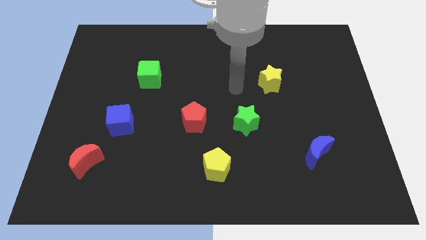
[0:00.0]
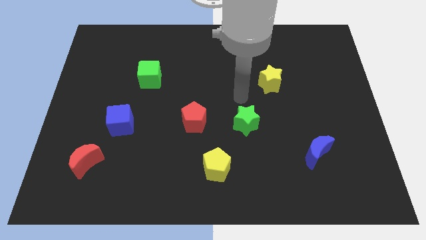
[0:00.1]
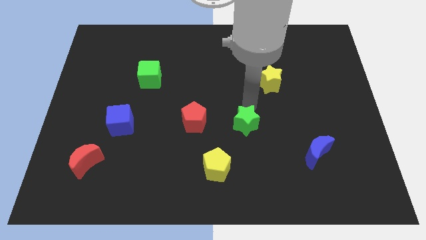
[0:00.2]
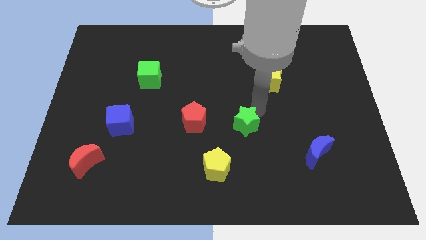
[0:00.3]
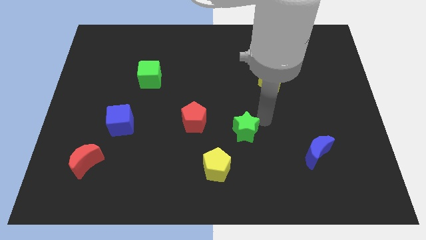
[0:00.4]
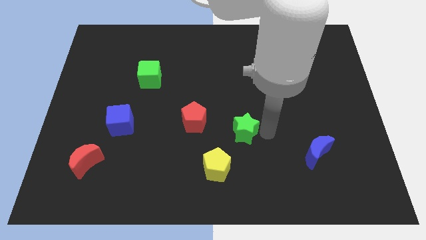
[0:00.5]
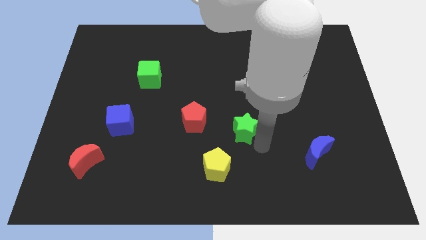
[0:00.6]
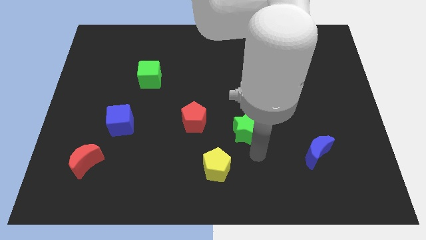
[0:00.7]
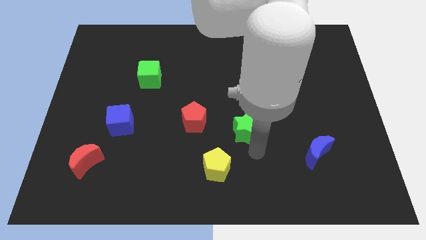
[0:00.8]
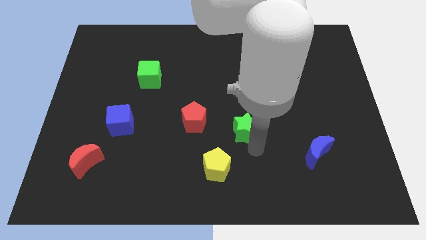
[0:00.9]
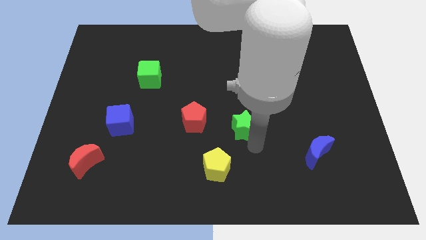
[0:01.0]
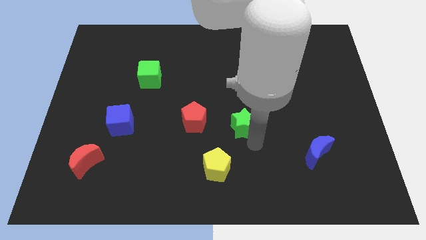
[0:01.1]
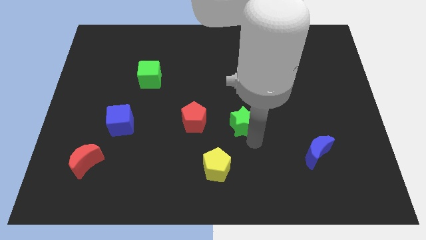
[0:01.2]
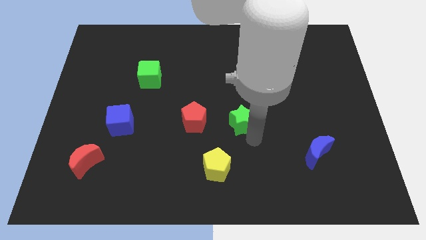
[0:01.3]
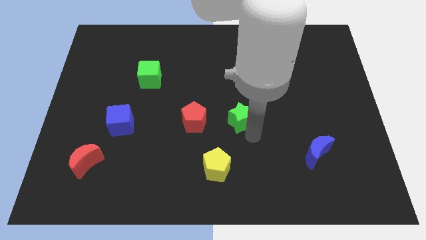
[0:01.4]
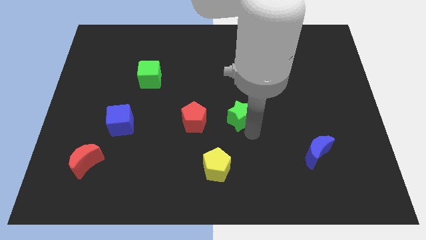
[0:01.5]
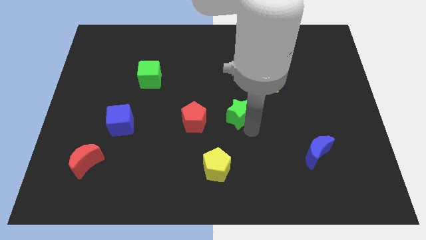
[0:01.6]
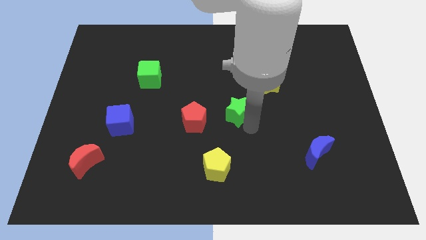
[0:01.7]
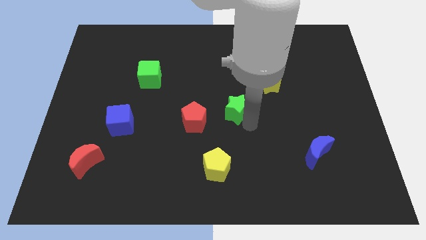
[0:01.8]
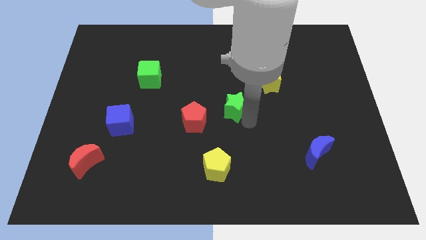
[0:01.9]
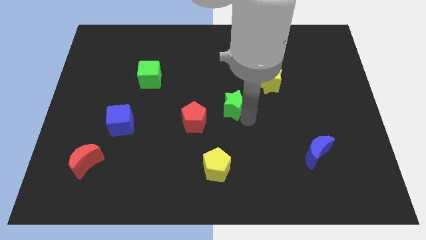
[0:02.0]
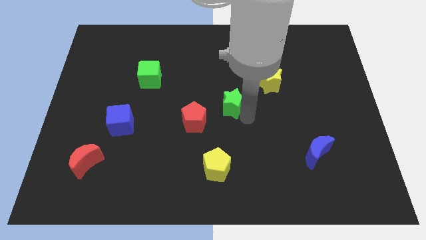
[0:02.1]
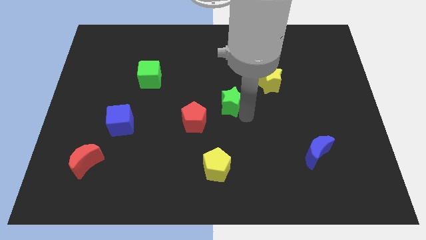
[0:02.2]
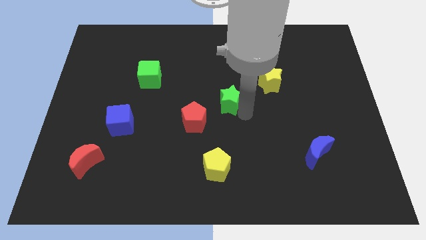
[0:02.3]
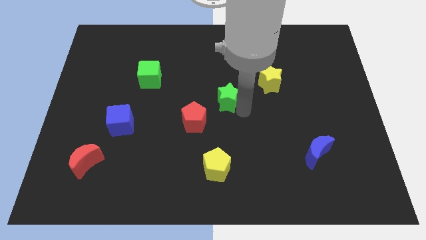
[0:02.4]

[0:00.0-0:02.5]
slightly move the green star diagonally up and left

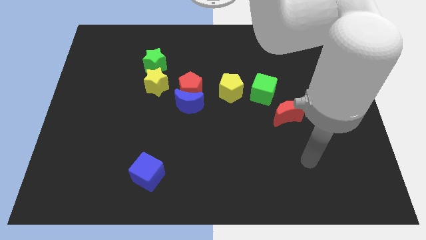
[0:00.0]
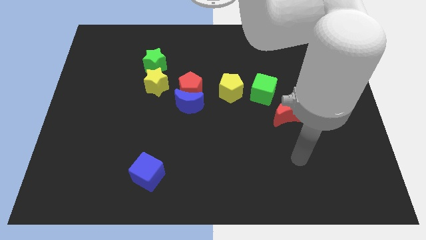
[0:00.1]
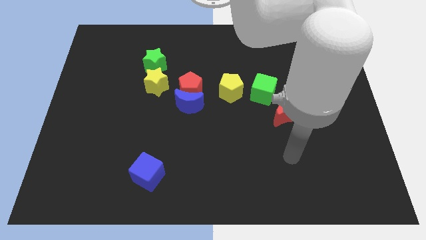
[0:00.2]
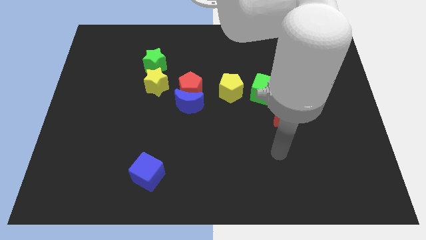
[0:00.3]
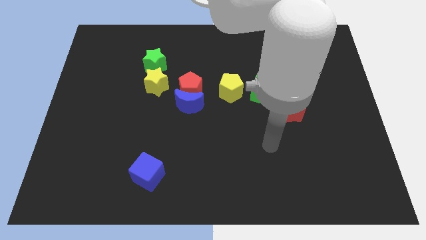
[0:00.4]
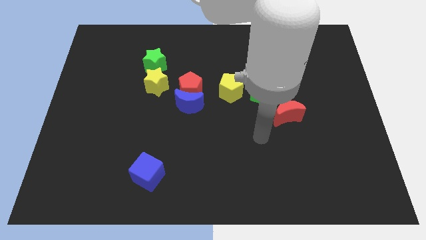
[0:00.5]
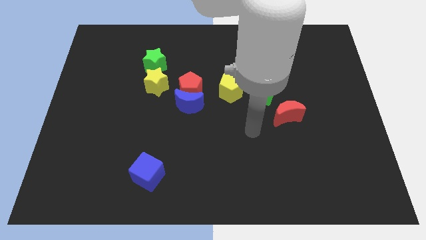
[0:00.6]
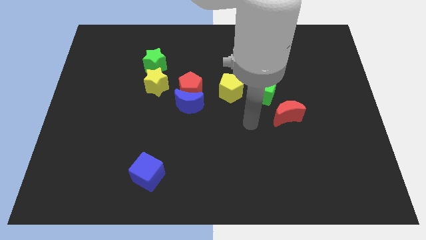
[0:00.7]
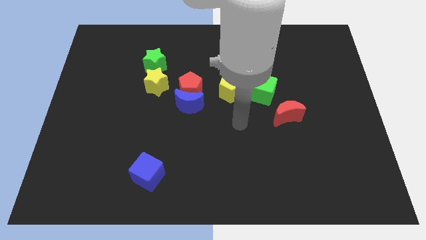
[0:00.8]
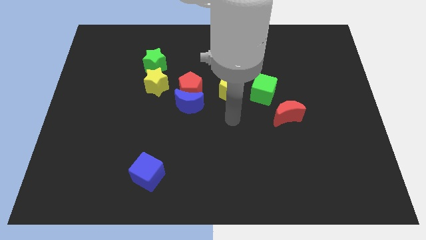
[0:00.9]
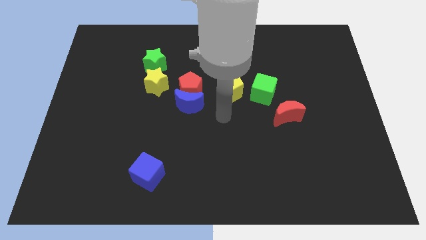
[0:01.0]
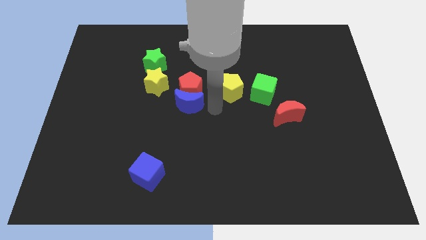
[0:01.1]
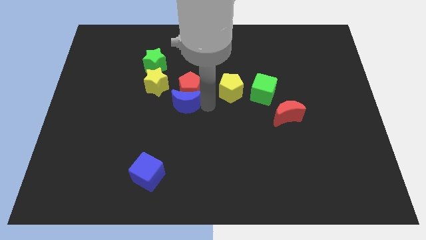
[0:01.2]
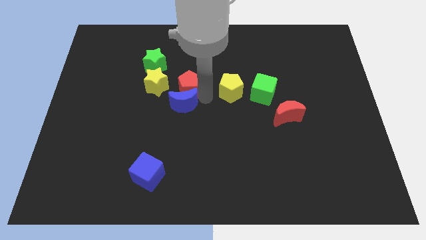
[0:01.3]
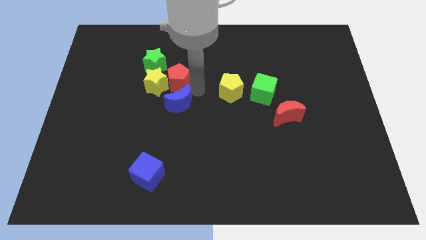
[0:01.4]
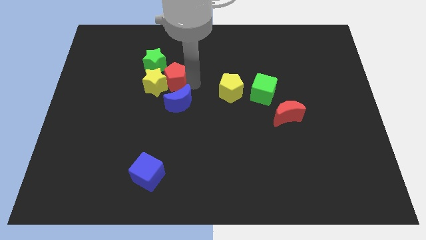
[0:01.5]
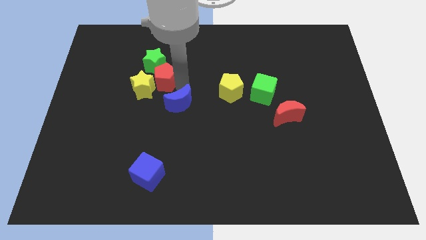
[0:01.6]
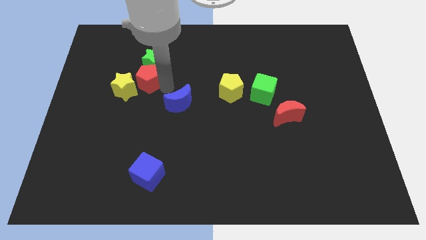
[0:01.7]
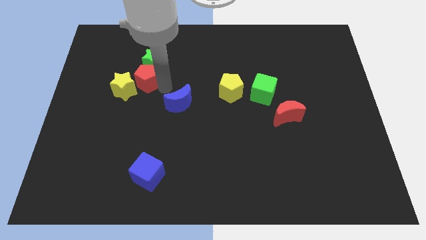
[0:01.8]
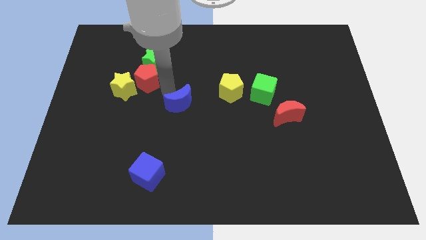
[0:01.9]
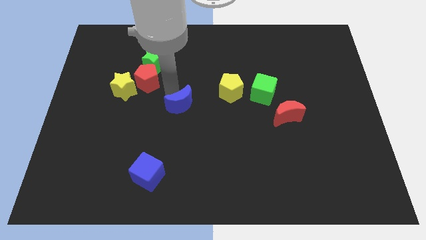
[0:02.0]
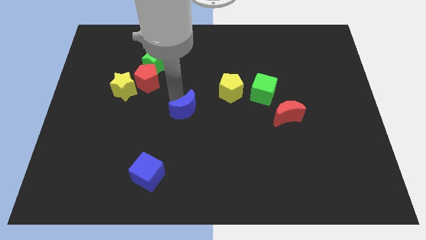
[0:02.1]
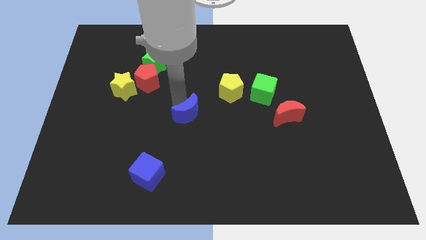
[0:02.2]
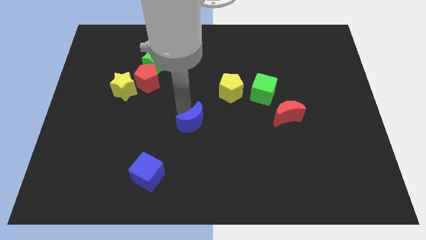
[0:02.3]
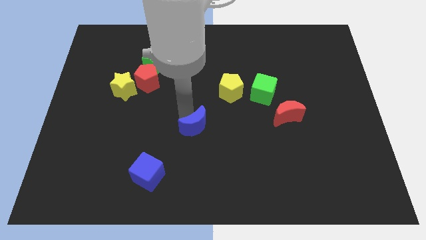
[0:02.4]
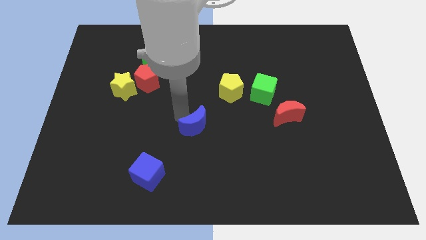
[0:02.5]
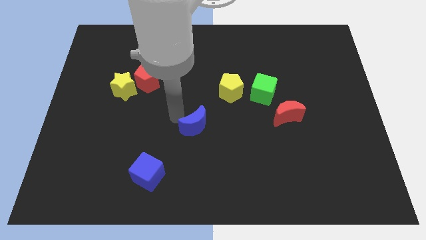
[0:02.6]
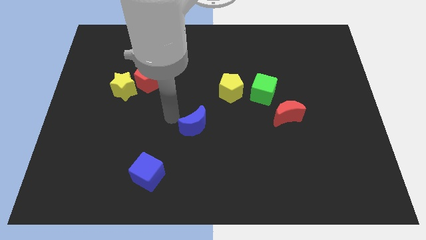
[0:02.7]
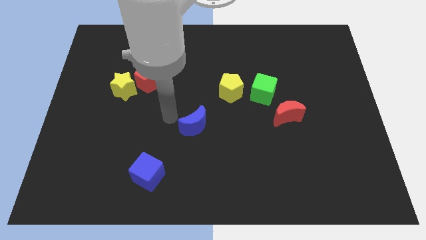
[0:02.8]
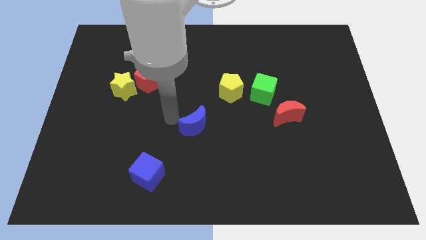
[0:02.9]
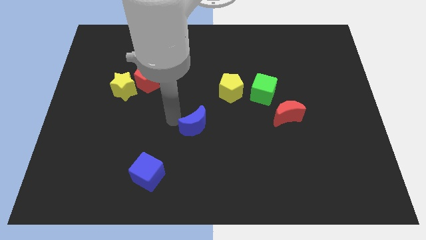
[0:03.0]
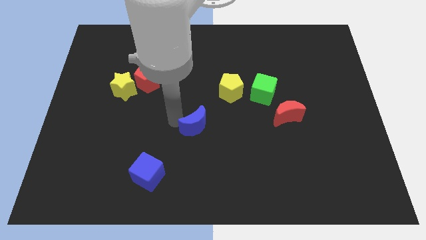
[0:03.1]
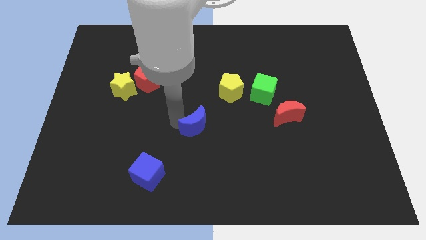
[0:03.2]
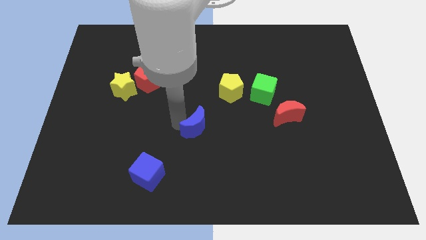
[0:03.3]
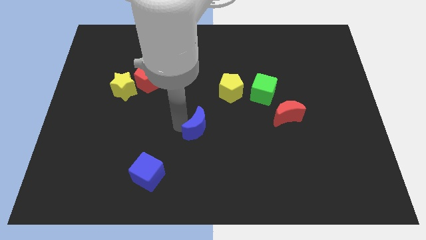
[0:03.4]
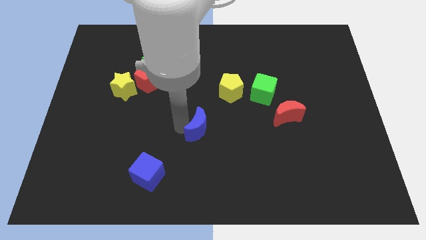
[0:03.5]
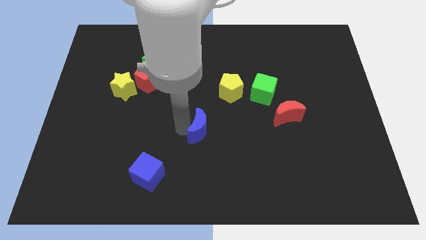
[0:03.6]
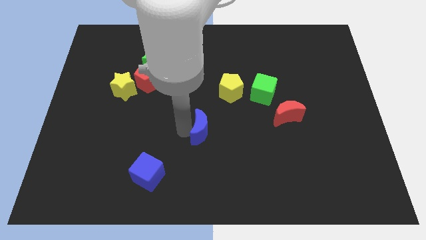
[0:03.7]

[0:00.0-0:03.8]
push the blue moon downwards and right a little

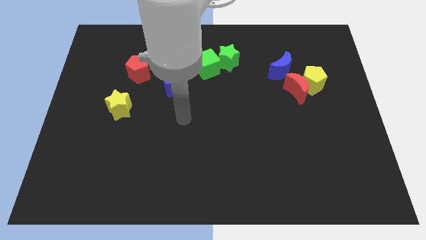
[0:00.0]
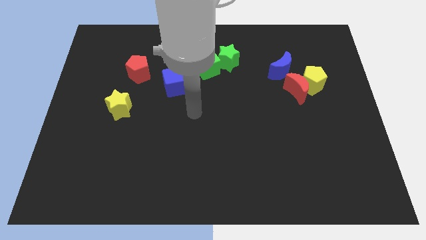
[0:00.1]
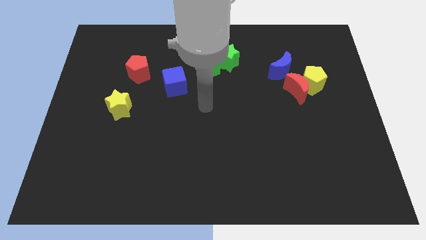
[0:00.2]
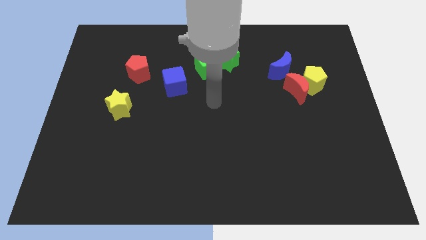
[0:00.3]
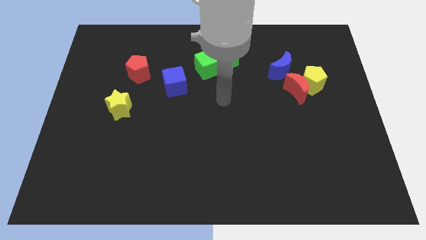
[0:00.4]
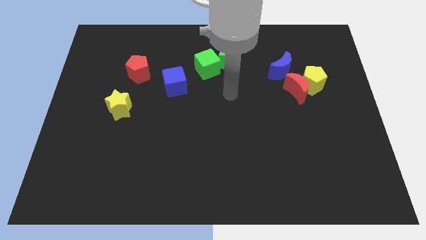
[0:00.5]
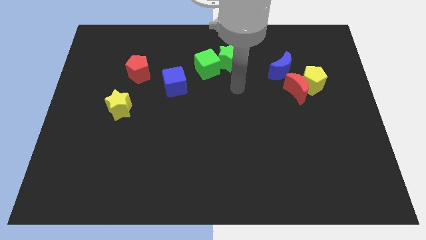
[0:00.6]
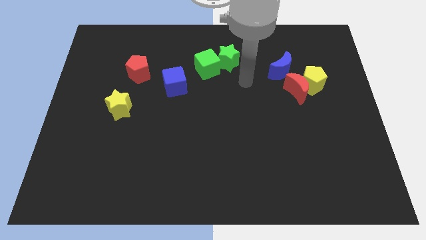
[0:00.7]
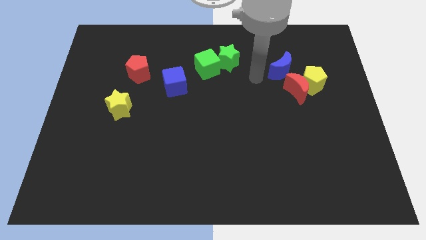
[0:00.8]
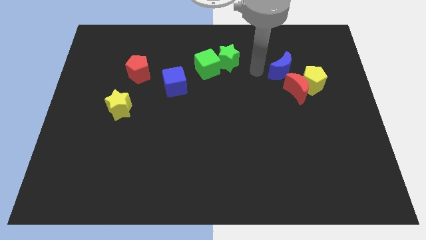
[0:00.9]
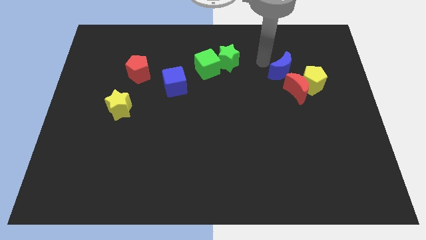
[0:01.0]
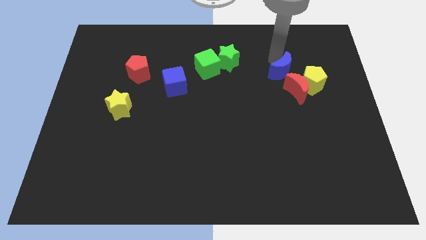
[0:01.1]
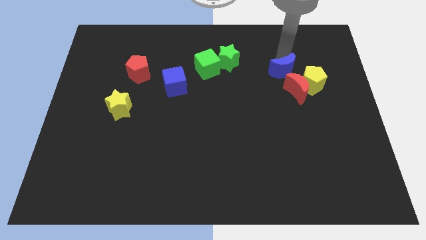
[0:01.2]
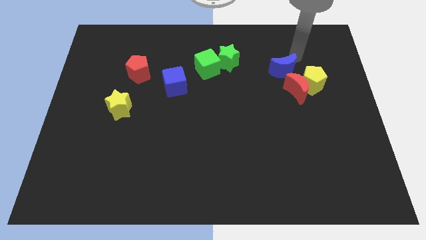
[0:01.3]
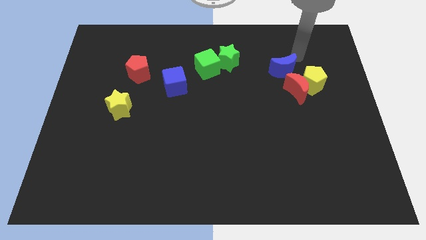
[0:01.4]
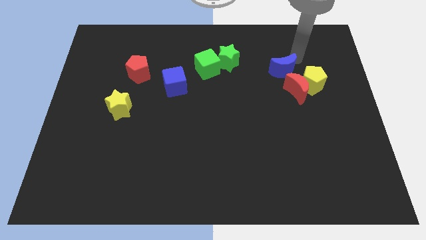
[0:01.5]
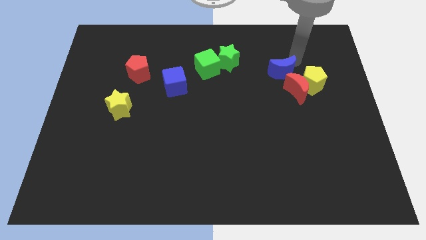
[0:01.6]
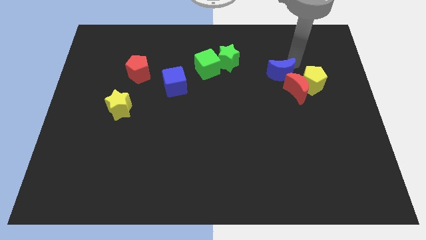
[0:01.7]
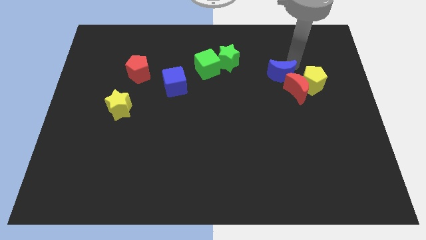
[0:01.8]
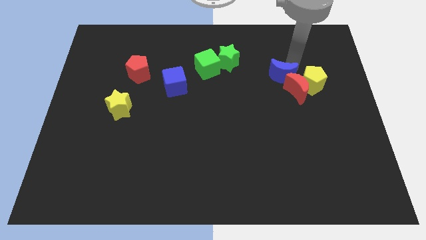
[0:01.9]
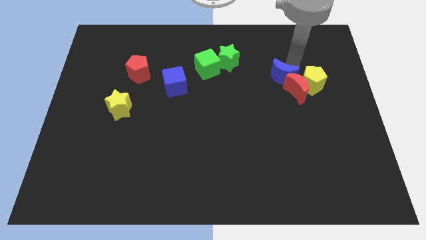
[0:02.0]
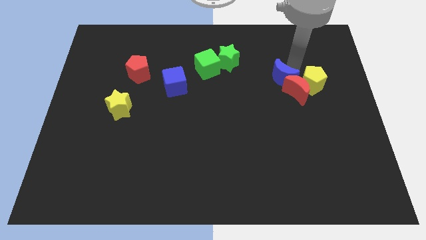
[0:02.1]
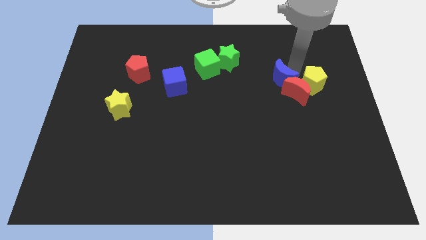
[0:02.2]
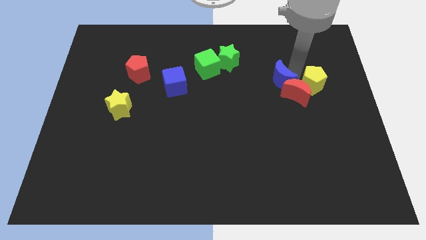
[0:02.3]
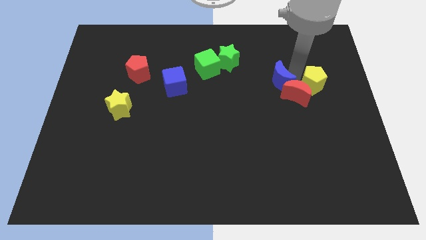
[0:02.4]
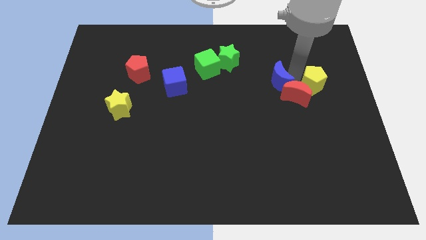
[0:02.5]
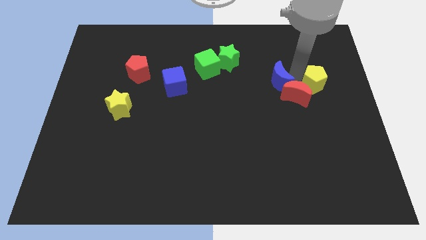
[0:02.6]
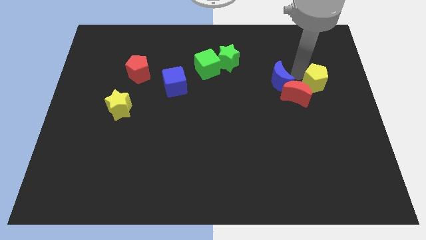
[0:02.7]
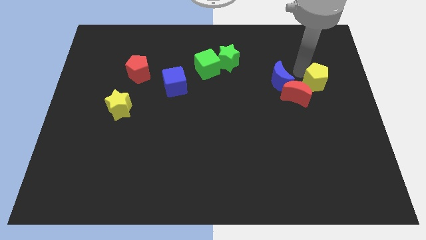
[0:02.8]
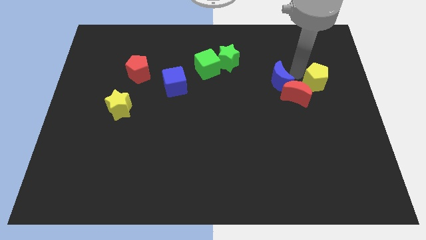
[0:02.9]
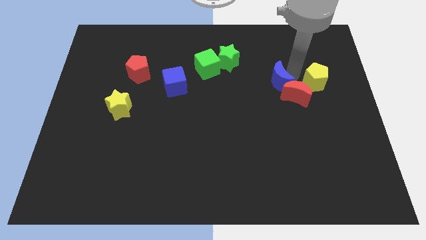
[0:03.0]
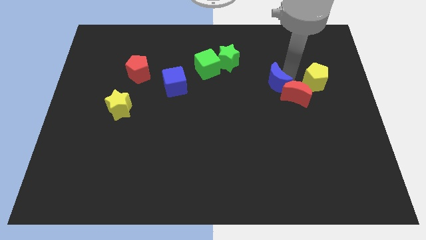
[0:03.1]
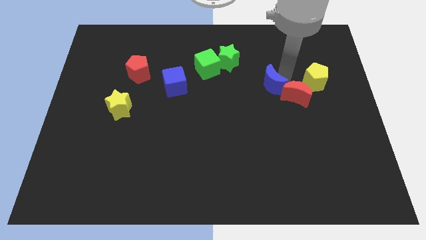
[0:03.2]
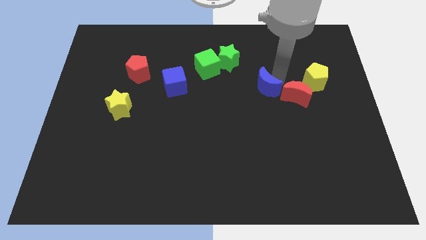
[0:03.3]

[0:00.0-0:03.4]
slightly slide the blue moon diagonally downwards and left
